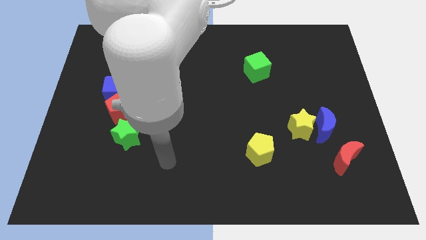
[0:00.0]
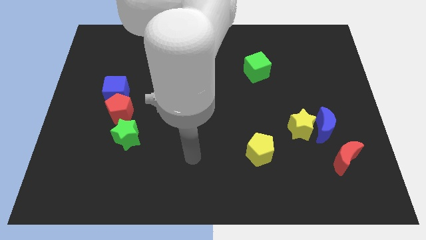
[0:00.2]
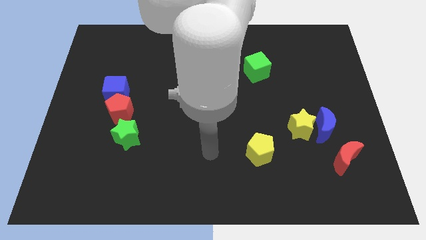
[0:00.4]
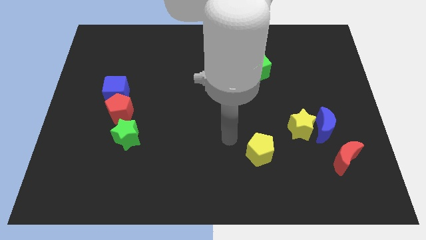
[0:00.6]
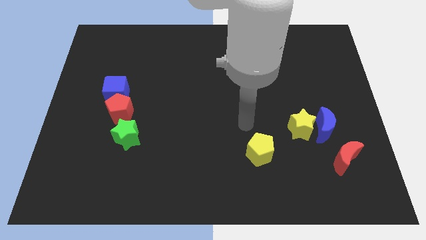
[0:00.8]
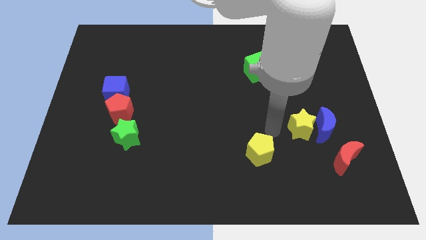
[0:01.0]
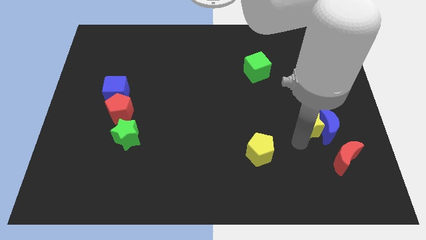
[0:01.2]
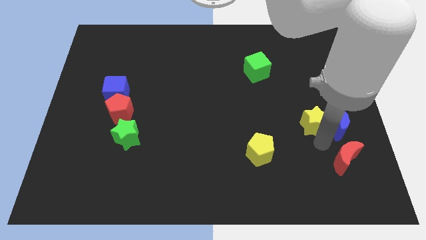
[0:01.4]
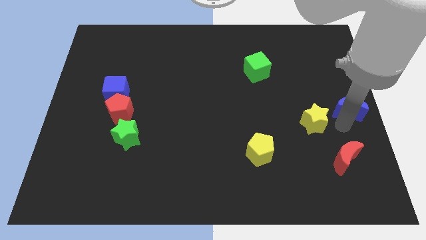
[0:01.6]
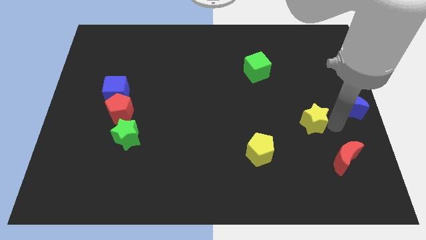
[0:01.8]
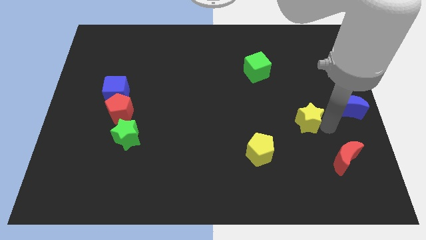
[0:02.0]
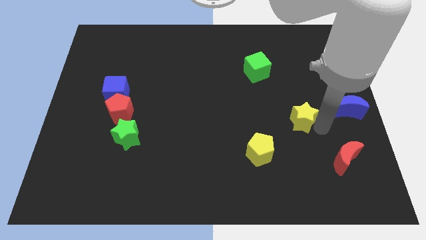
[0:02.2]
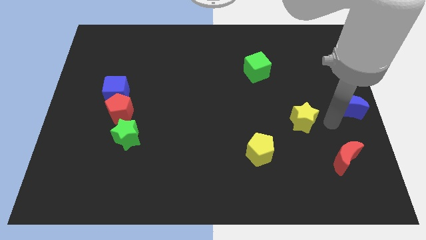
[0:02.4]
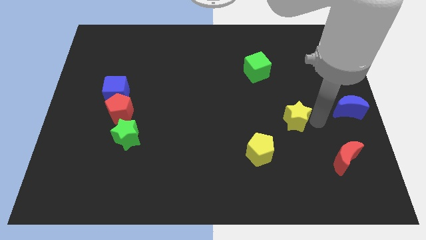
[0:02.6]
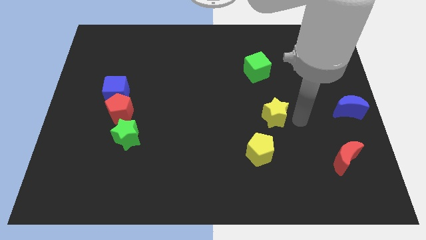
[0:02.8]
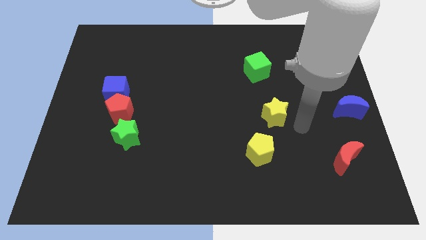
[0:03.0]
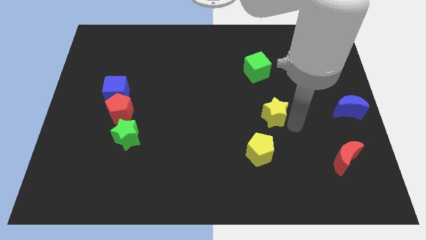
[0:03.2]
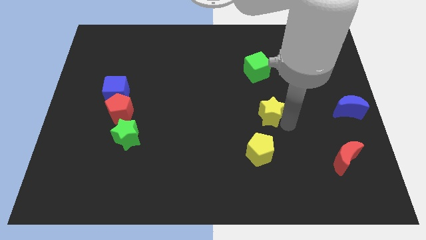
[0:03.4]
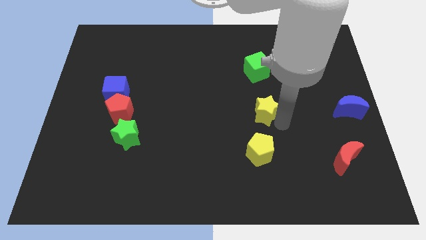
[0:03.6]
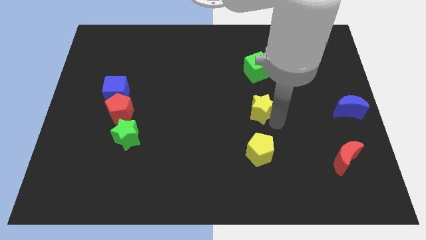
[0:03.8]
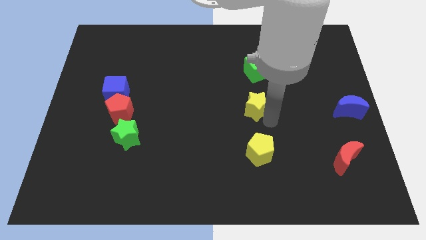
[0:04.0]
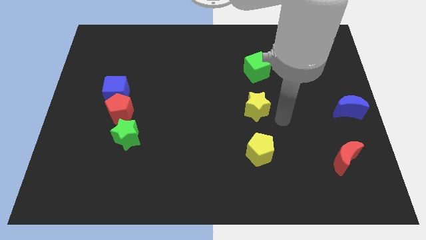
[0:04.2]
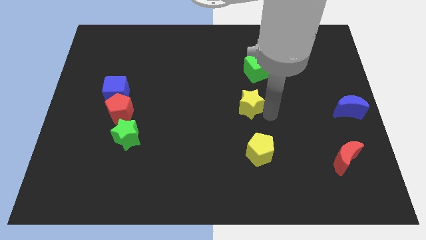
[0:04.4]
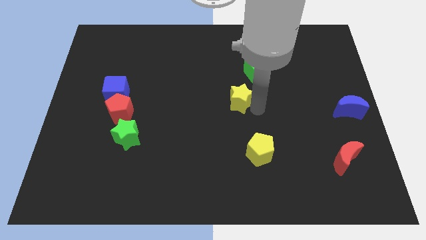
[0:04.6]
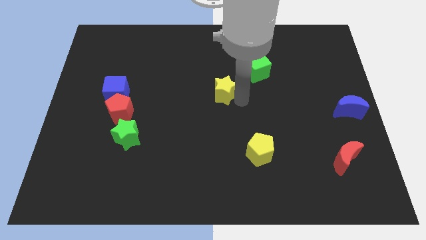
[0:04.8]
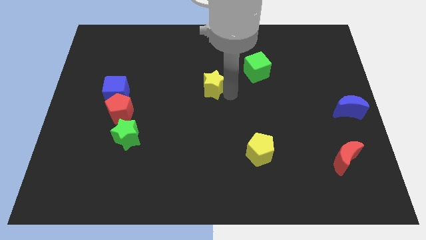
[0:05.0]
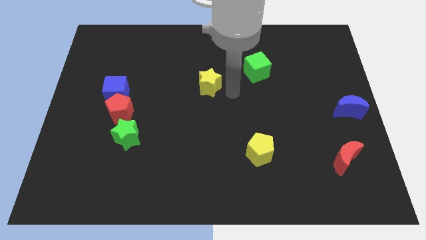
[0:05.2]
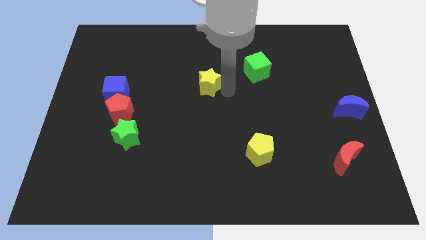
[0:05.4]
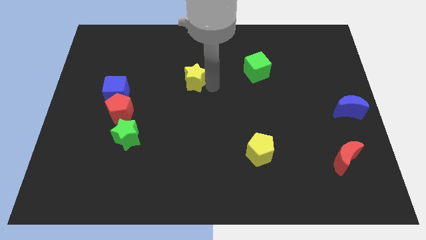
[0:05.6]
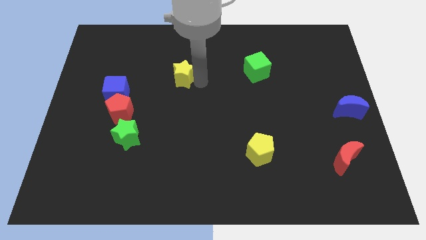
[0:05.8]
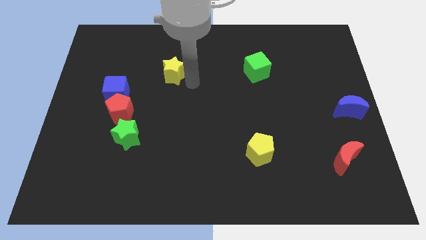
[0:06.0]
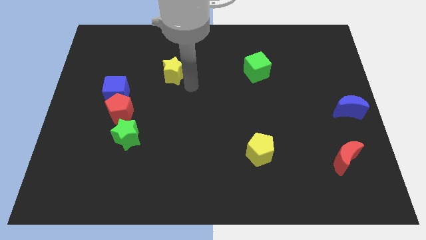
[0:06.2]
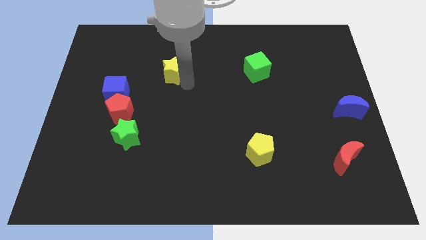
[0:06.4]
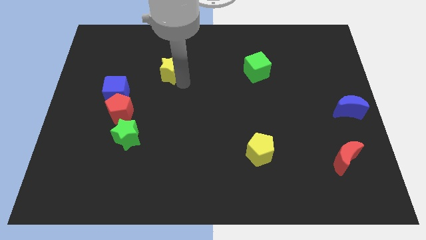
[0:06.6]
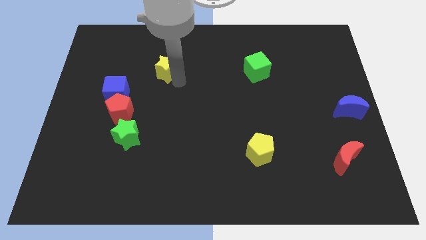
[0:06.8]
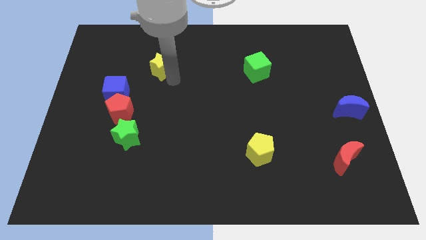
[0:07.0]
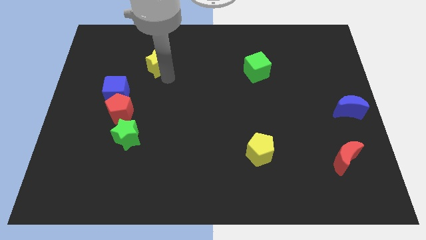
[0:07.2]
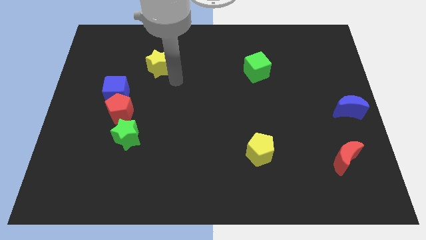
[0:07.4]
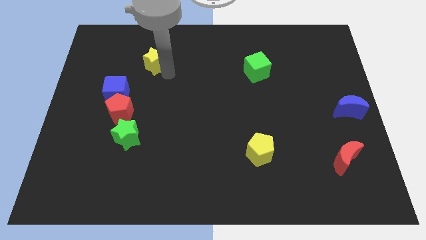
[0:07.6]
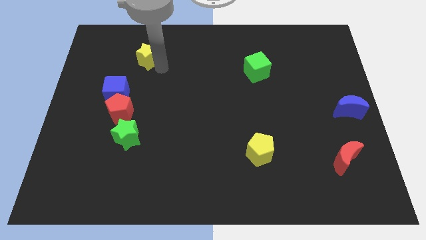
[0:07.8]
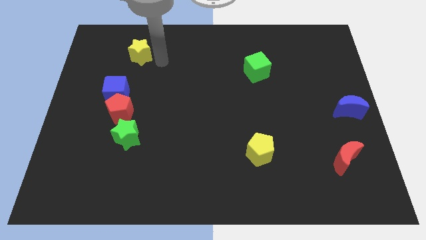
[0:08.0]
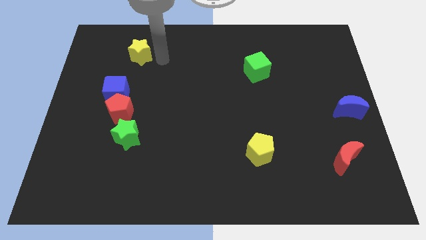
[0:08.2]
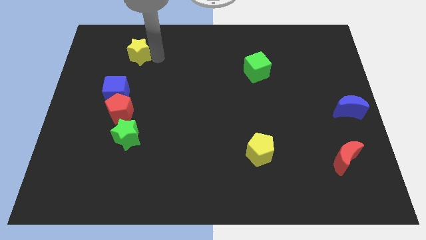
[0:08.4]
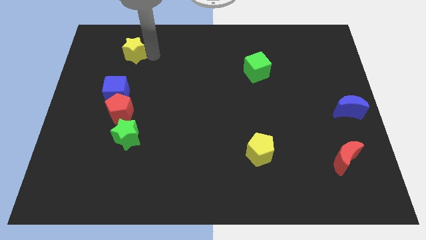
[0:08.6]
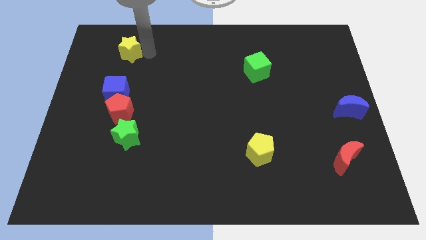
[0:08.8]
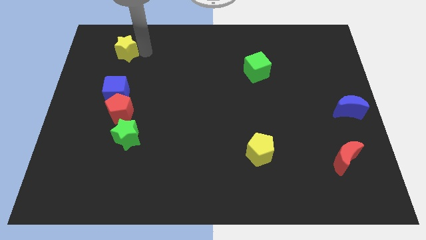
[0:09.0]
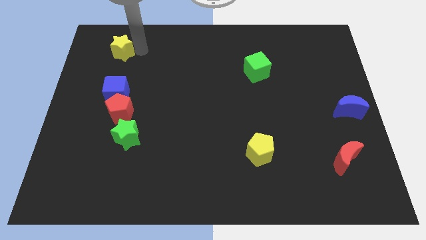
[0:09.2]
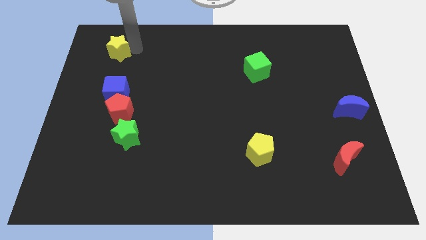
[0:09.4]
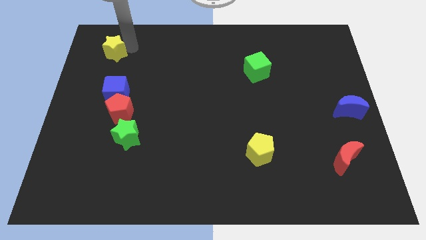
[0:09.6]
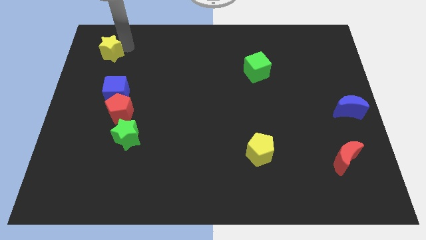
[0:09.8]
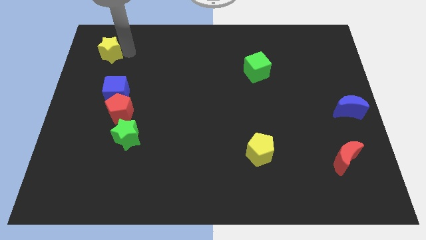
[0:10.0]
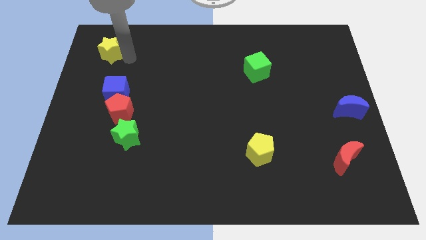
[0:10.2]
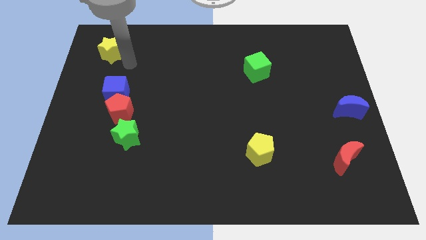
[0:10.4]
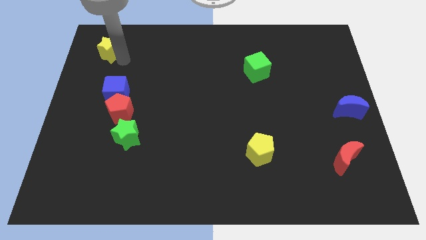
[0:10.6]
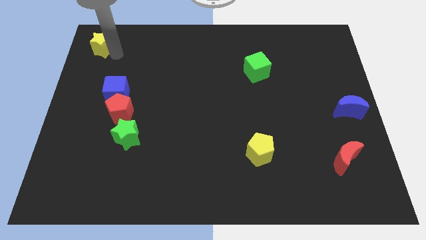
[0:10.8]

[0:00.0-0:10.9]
slide the yellow star to the top left of the board

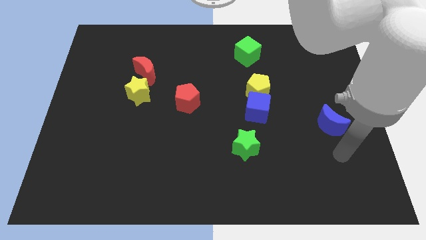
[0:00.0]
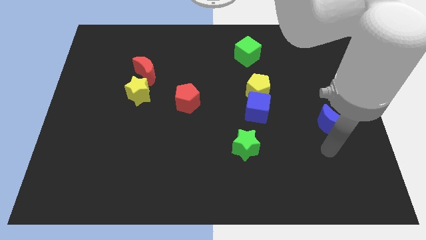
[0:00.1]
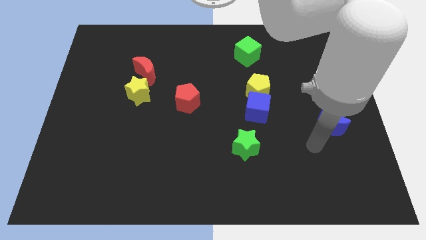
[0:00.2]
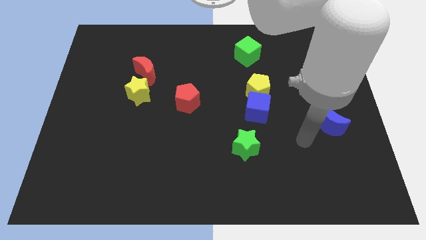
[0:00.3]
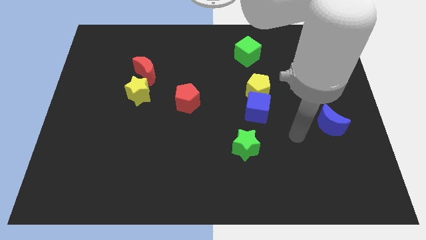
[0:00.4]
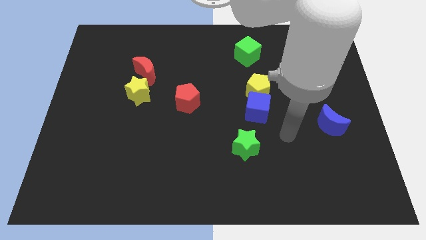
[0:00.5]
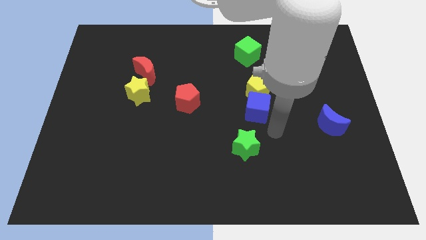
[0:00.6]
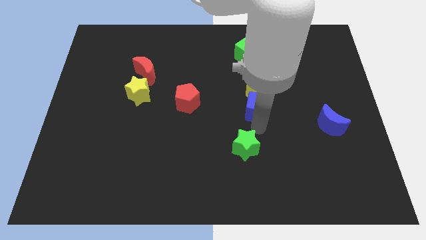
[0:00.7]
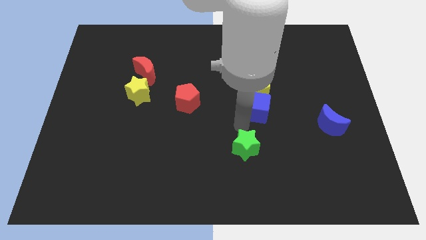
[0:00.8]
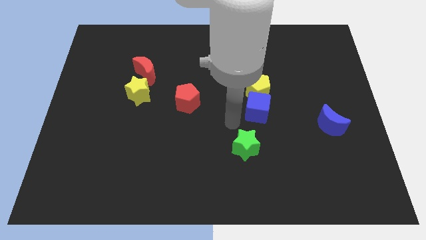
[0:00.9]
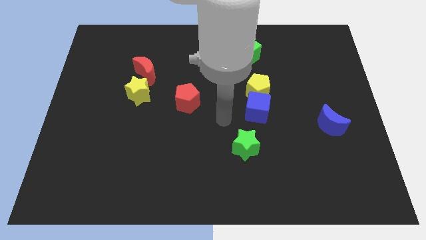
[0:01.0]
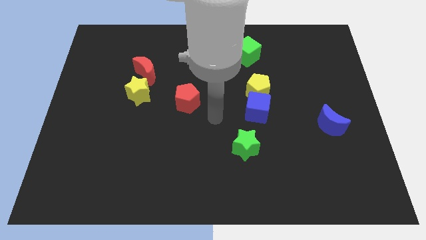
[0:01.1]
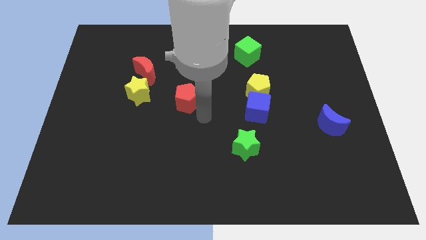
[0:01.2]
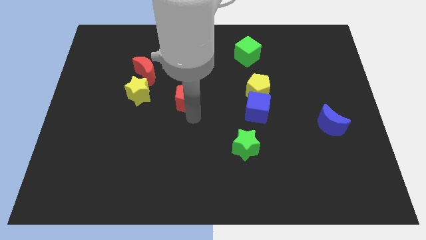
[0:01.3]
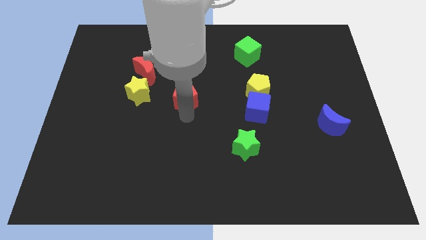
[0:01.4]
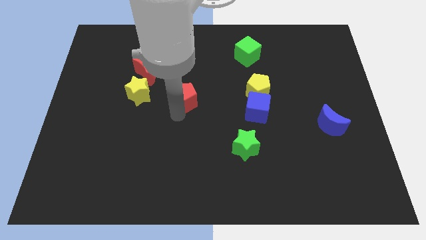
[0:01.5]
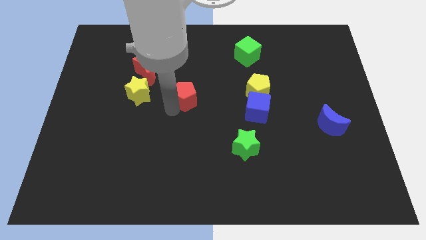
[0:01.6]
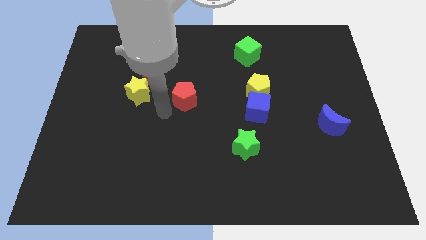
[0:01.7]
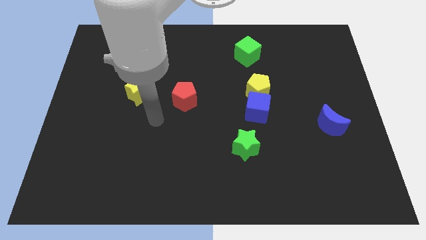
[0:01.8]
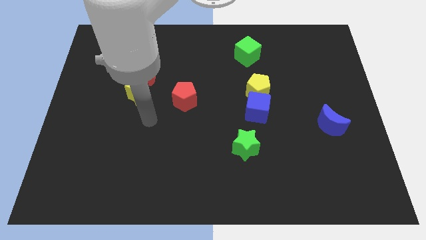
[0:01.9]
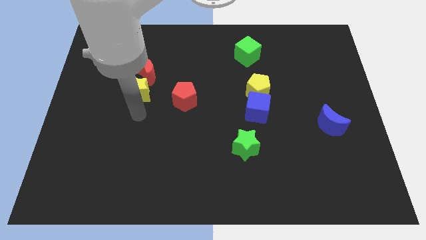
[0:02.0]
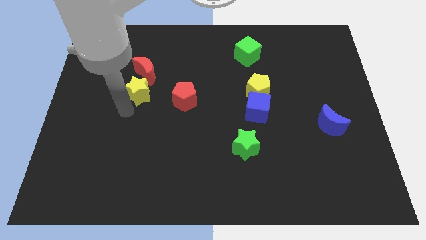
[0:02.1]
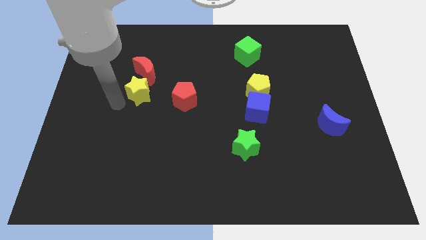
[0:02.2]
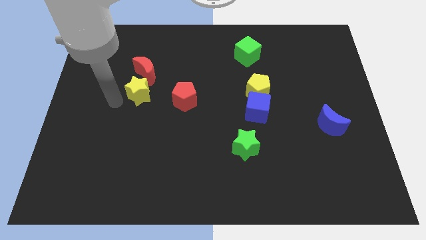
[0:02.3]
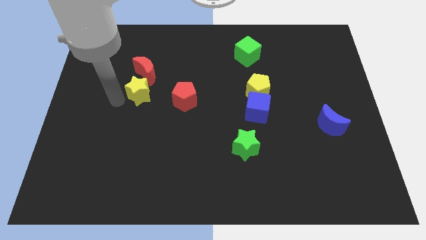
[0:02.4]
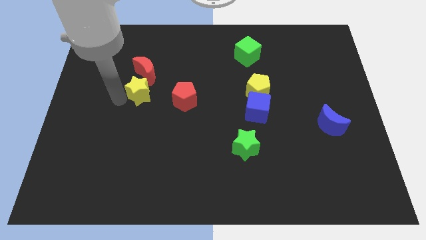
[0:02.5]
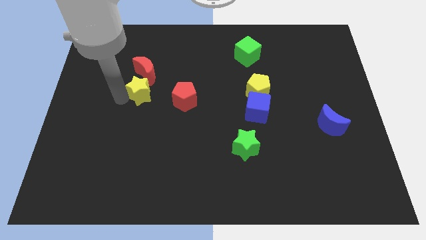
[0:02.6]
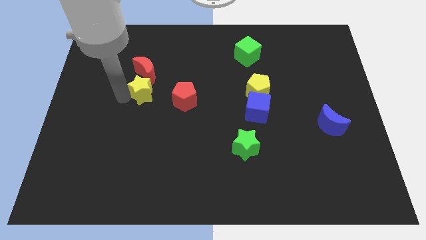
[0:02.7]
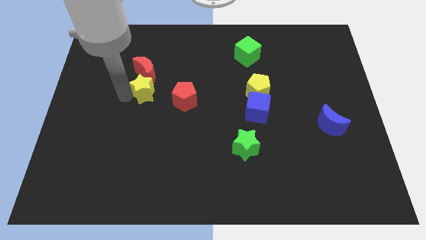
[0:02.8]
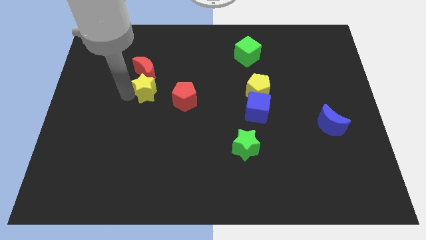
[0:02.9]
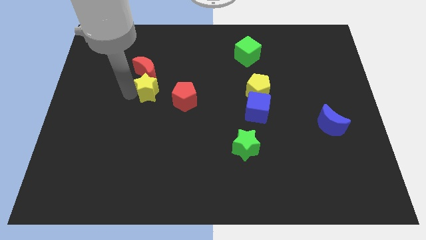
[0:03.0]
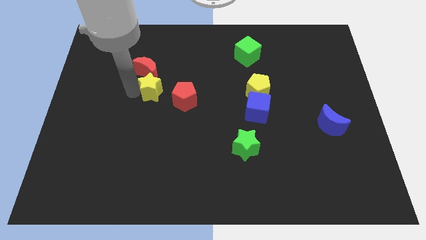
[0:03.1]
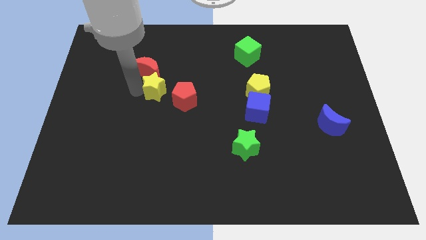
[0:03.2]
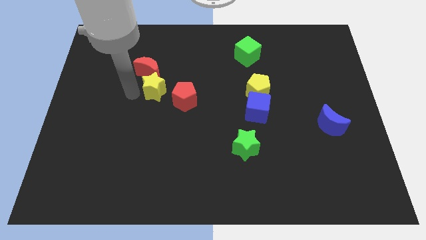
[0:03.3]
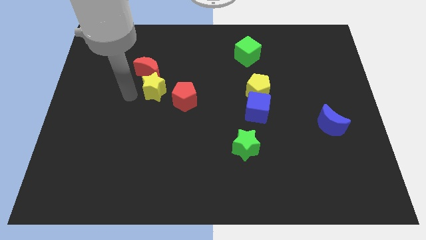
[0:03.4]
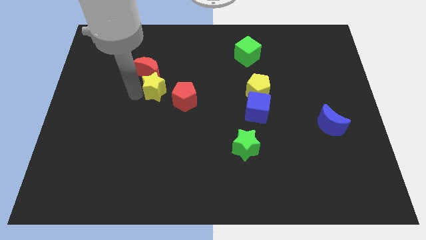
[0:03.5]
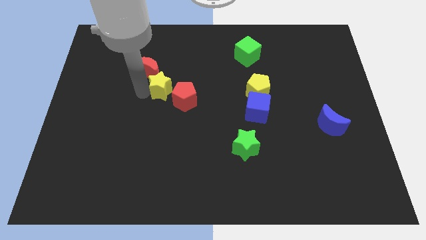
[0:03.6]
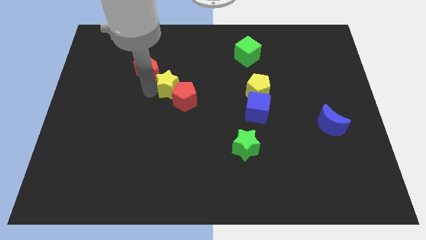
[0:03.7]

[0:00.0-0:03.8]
put the yellow star to the center of the board
